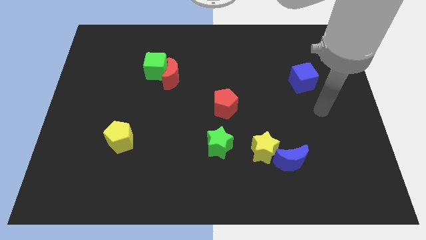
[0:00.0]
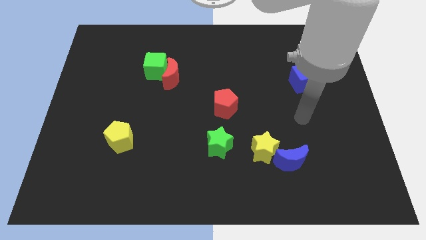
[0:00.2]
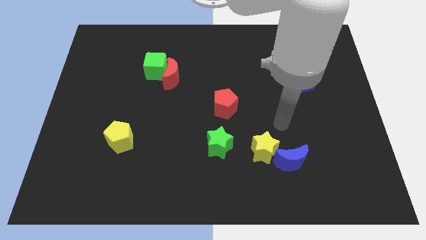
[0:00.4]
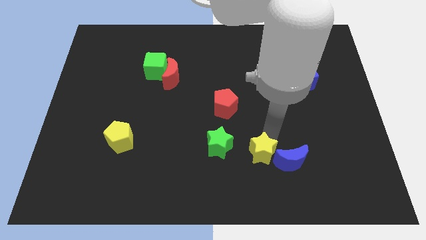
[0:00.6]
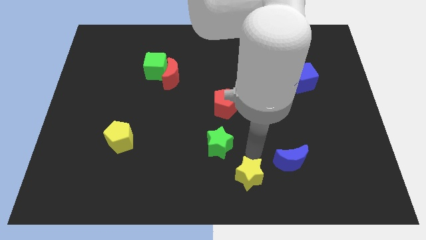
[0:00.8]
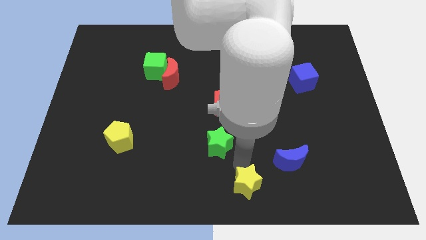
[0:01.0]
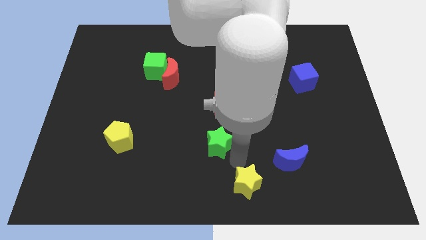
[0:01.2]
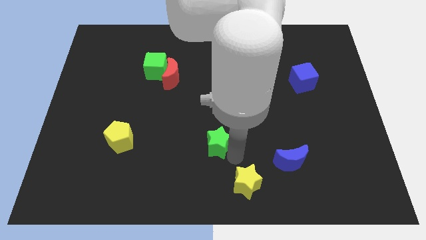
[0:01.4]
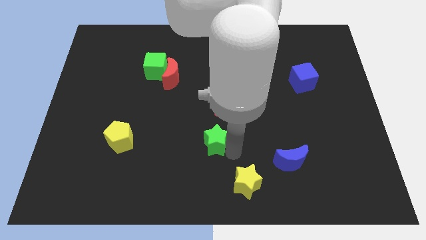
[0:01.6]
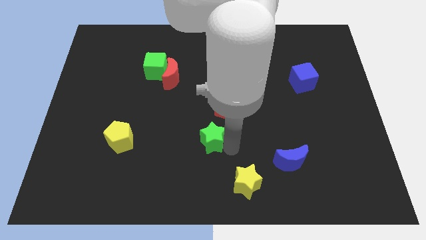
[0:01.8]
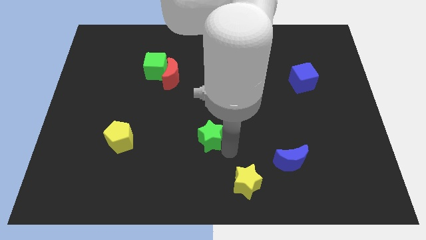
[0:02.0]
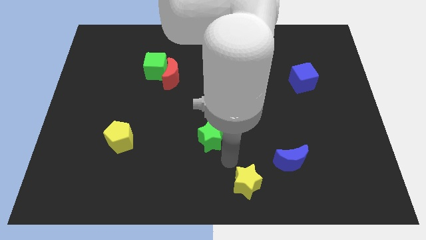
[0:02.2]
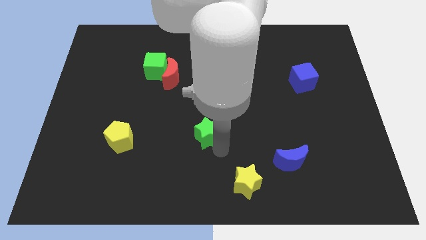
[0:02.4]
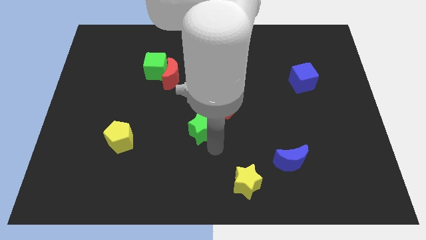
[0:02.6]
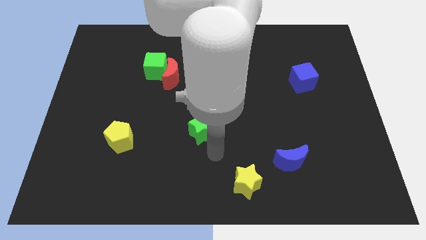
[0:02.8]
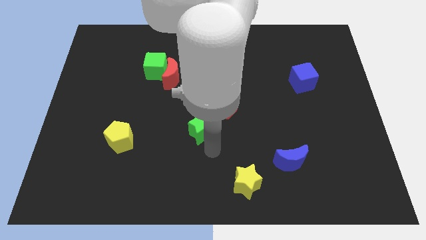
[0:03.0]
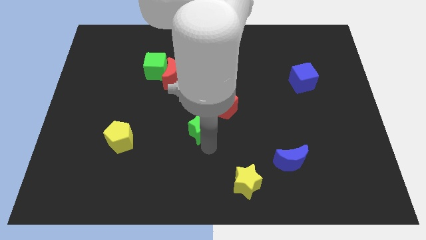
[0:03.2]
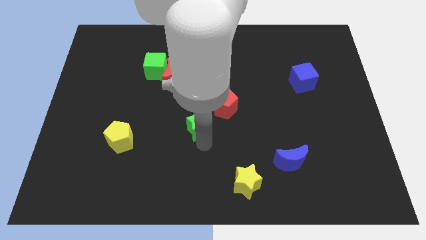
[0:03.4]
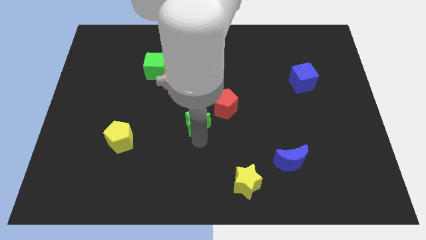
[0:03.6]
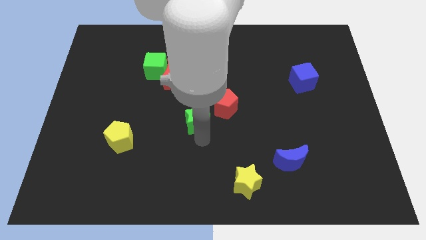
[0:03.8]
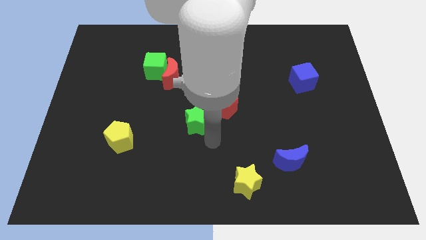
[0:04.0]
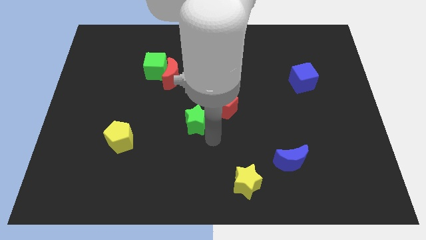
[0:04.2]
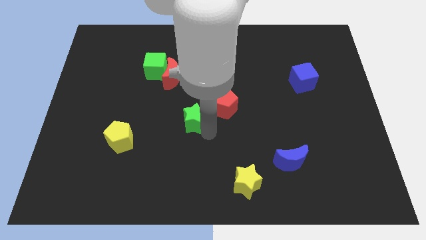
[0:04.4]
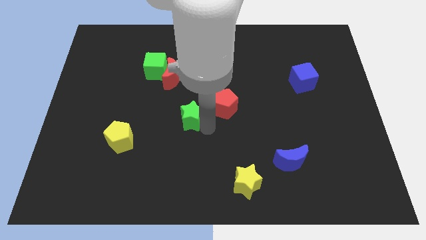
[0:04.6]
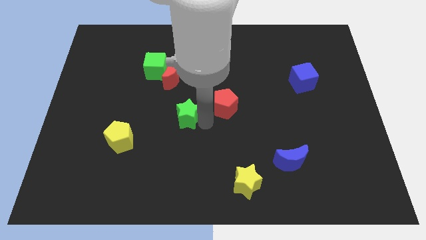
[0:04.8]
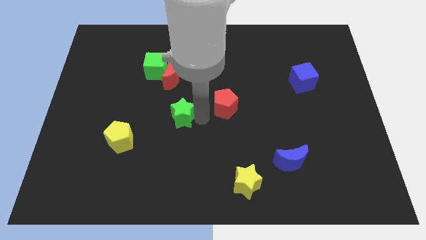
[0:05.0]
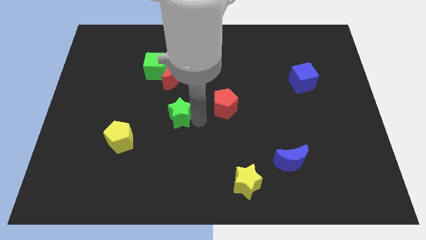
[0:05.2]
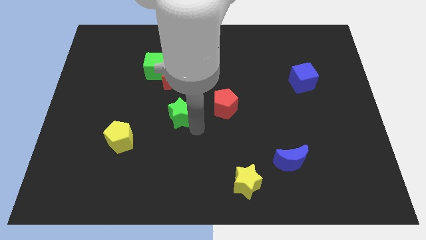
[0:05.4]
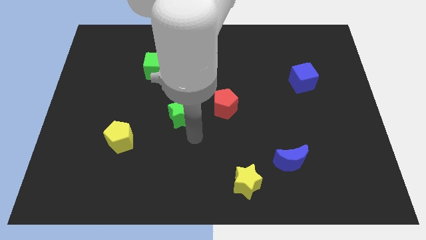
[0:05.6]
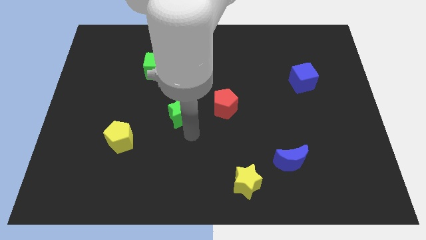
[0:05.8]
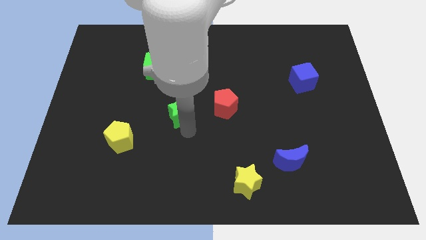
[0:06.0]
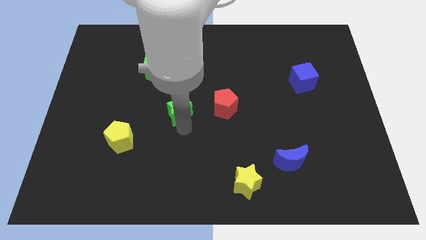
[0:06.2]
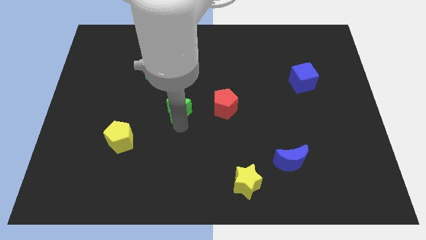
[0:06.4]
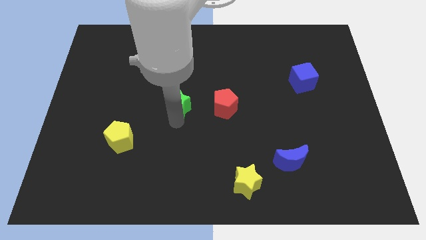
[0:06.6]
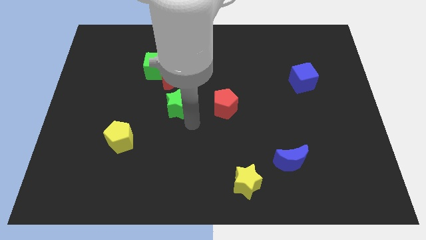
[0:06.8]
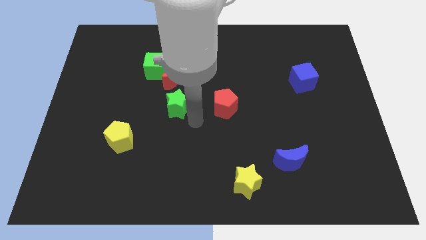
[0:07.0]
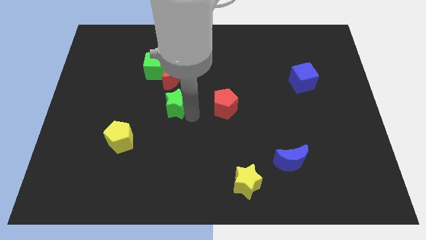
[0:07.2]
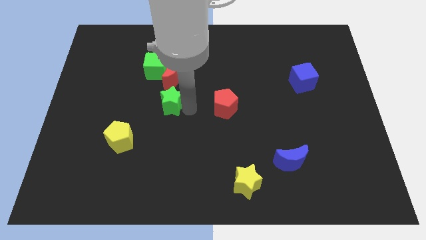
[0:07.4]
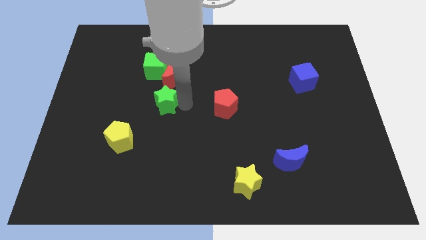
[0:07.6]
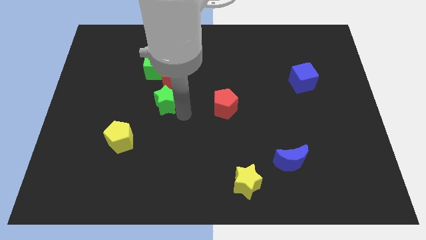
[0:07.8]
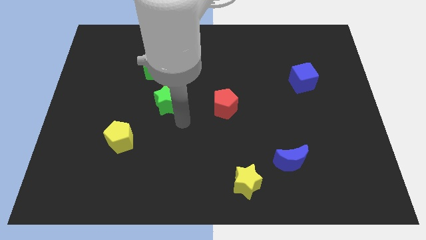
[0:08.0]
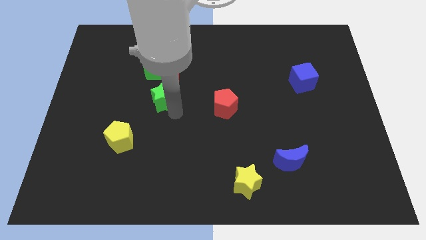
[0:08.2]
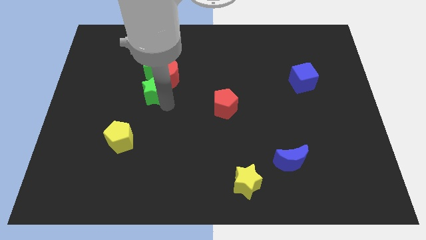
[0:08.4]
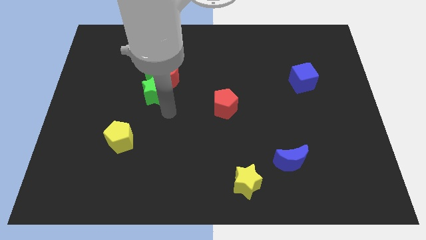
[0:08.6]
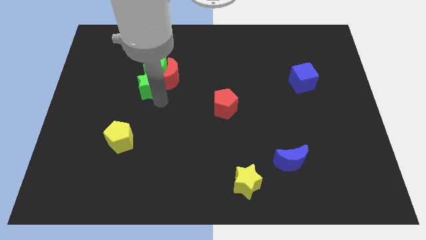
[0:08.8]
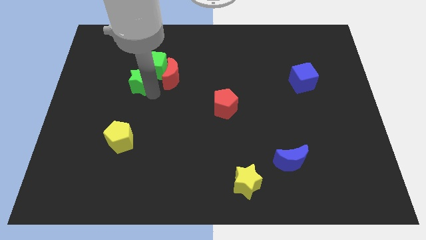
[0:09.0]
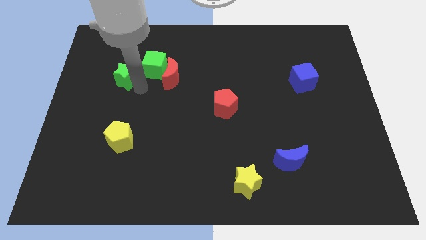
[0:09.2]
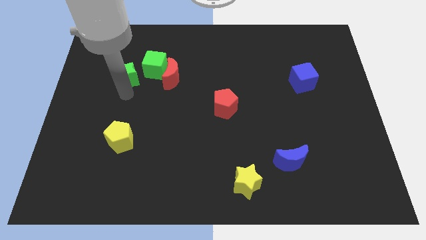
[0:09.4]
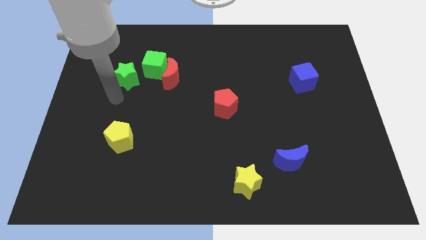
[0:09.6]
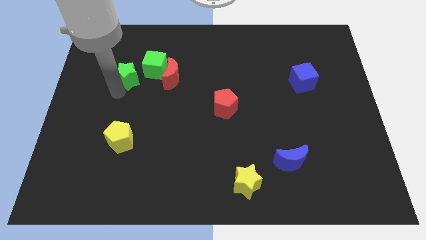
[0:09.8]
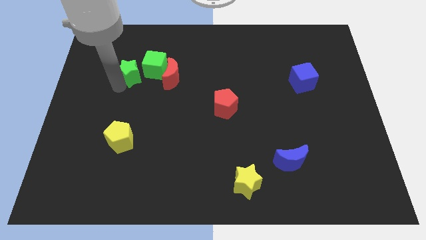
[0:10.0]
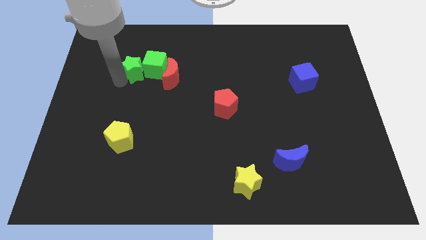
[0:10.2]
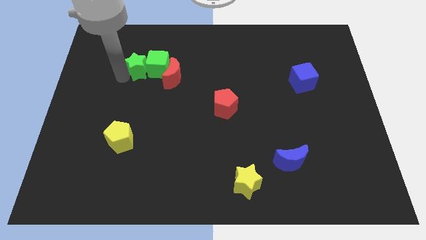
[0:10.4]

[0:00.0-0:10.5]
slide the green star to the top left of the red moon

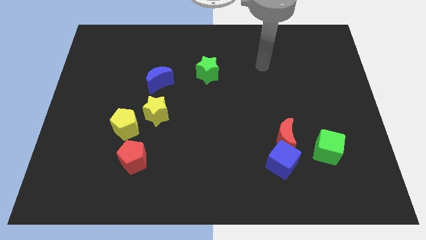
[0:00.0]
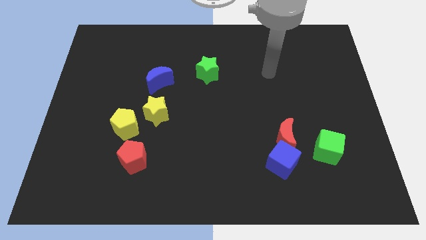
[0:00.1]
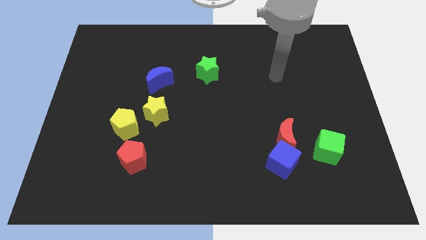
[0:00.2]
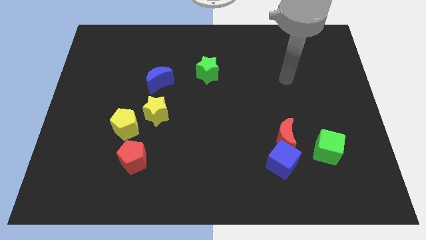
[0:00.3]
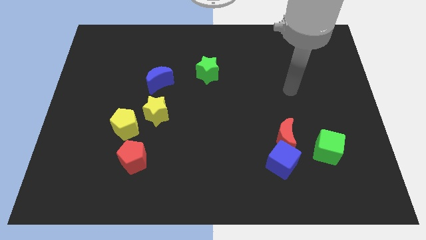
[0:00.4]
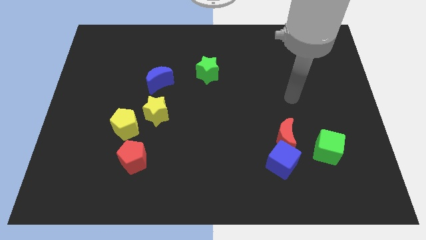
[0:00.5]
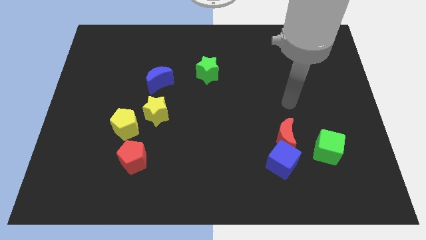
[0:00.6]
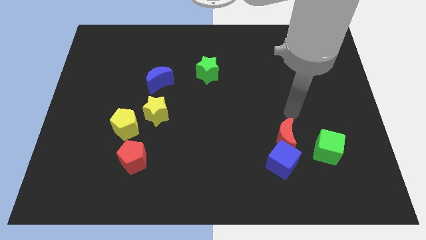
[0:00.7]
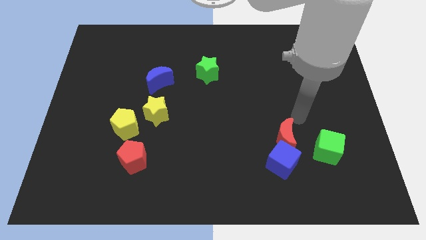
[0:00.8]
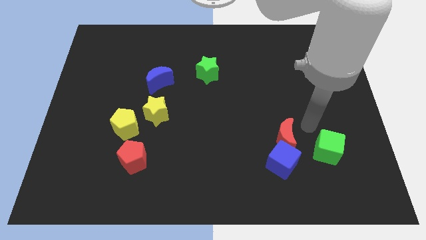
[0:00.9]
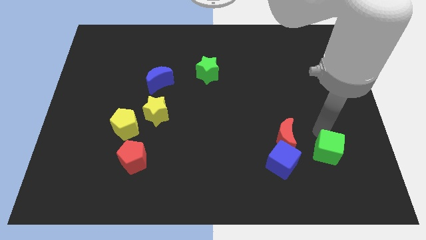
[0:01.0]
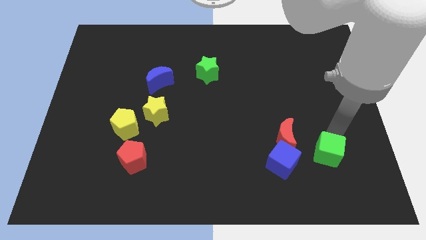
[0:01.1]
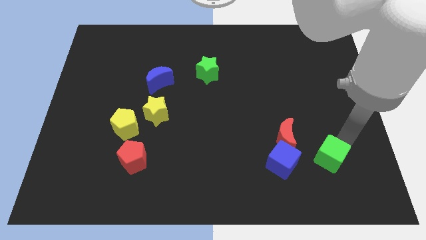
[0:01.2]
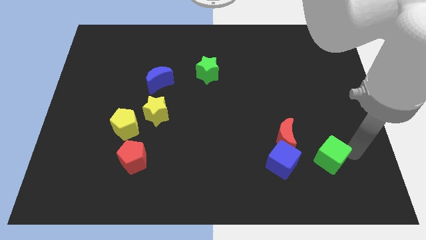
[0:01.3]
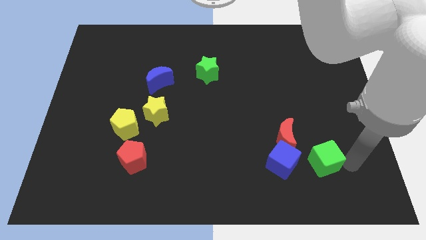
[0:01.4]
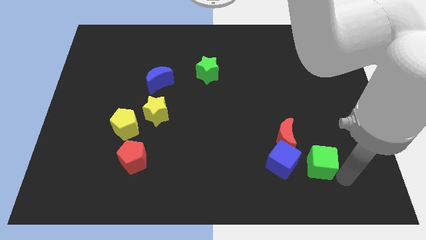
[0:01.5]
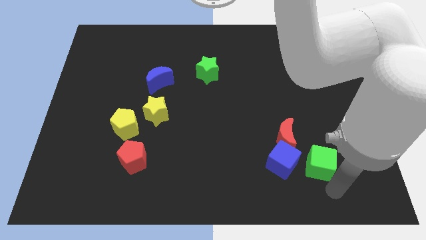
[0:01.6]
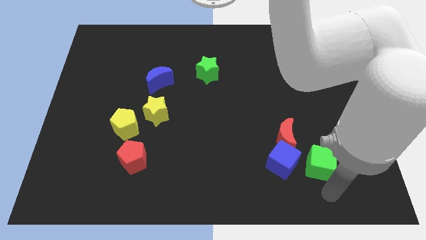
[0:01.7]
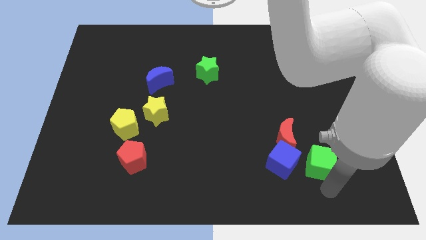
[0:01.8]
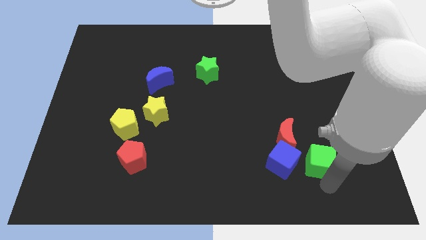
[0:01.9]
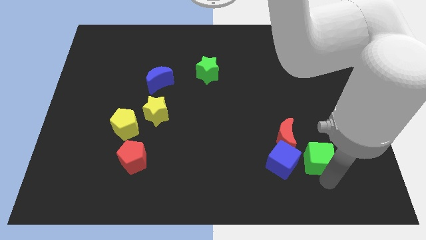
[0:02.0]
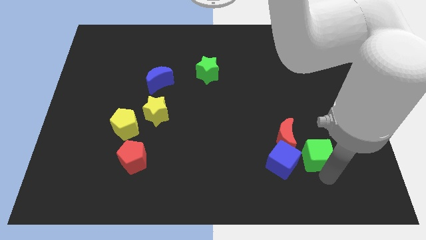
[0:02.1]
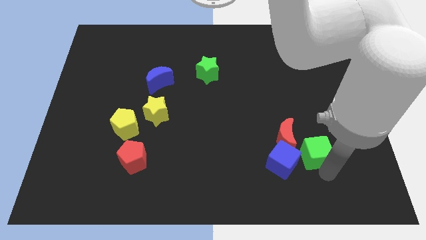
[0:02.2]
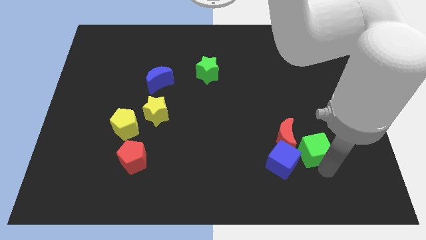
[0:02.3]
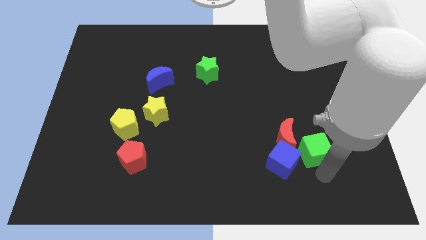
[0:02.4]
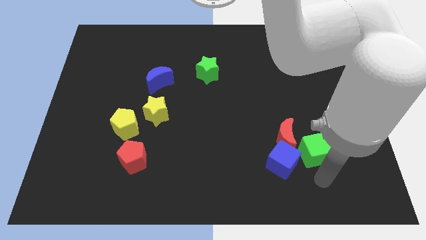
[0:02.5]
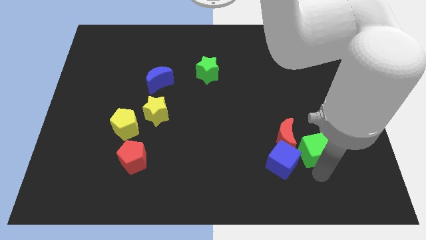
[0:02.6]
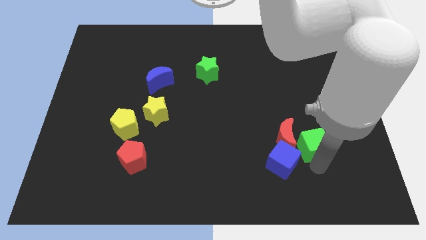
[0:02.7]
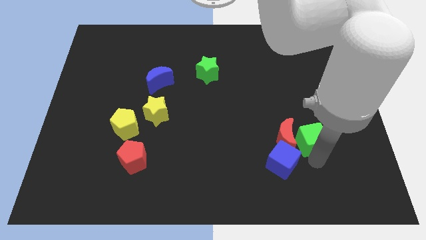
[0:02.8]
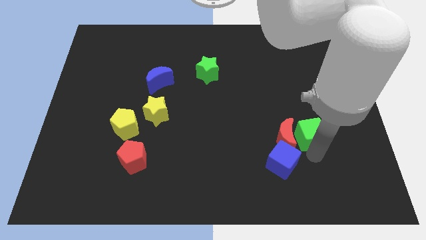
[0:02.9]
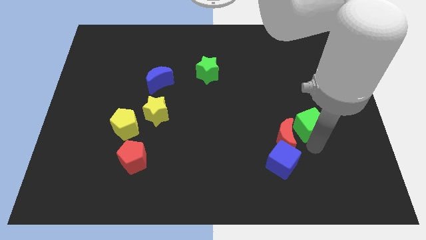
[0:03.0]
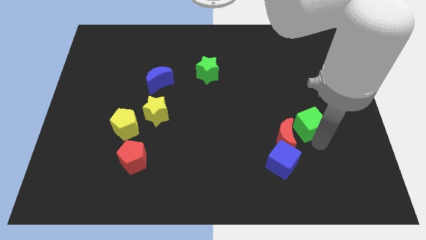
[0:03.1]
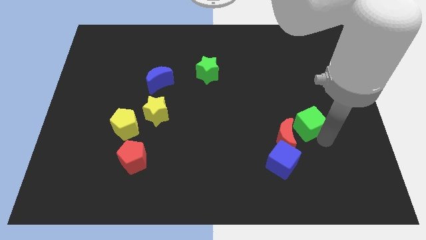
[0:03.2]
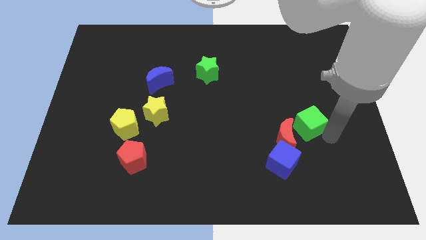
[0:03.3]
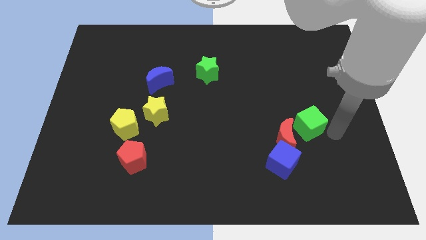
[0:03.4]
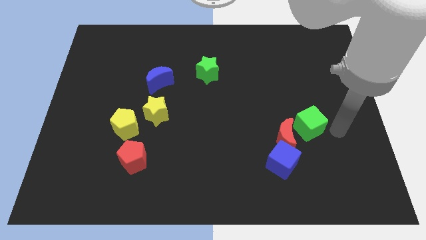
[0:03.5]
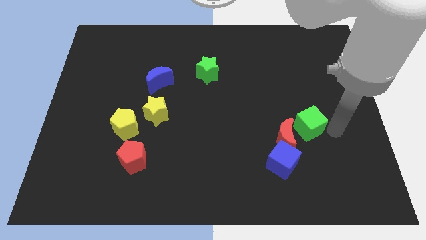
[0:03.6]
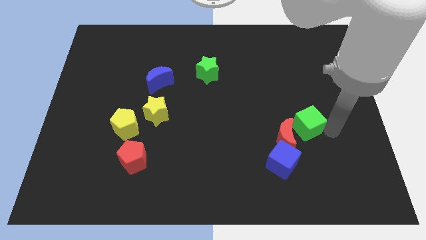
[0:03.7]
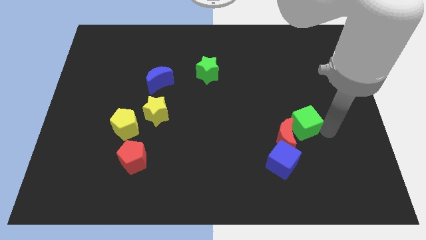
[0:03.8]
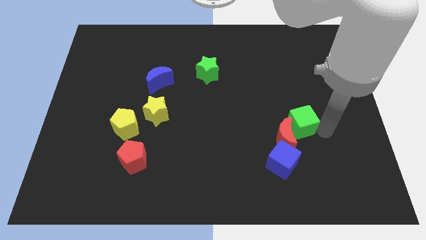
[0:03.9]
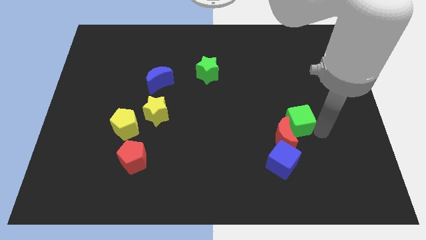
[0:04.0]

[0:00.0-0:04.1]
put the green cube to the top side of the blue cube
